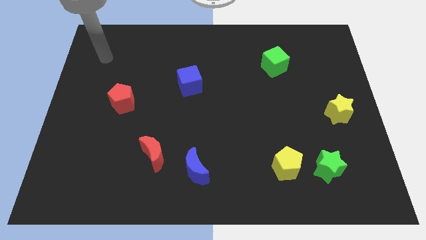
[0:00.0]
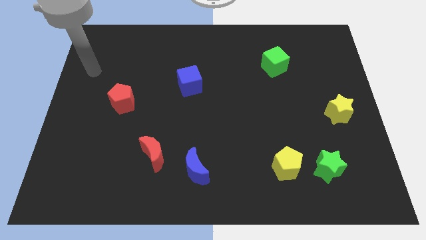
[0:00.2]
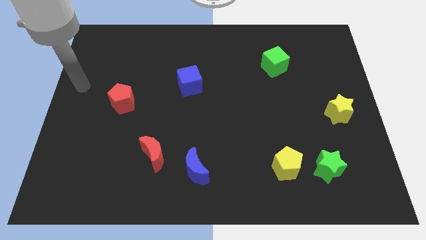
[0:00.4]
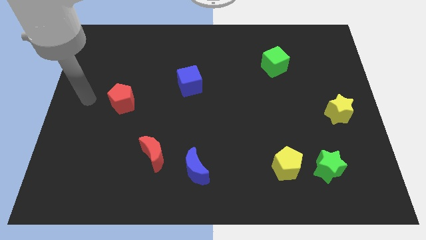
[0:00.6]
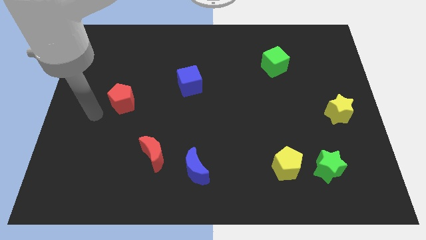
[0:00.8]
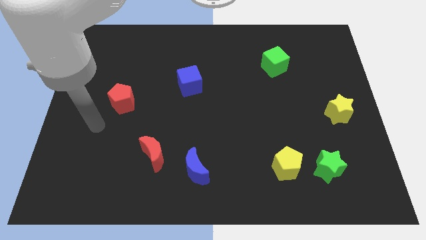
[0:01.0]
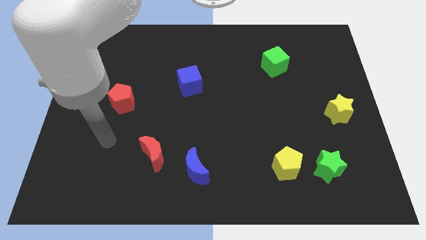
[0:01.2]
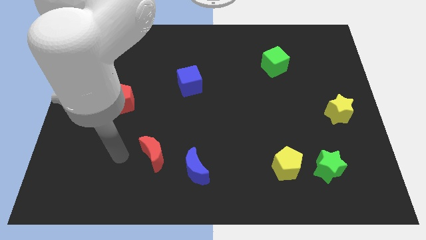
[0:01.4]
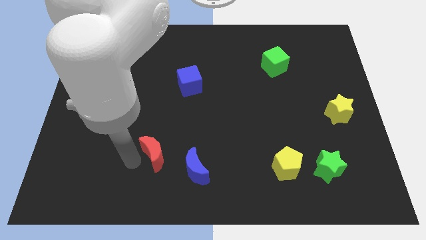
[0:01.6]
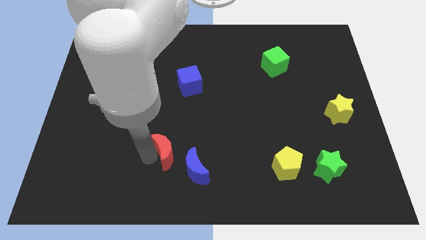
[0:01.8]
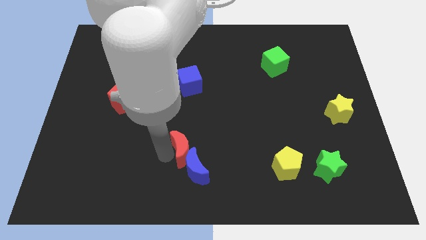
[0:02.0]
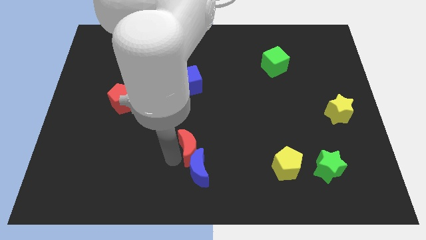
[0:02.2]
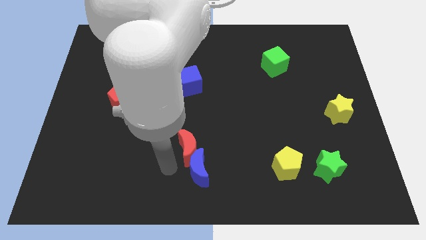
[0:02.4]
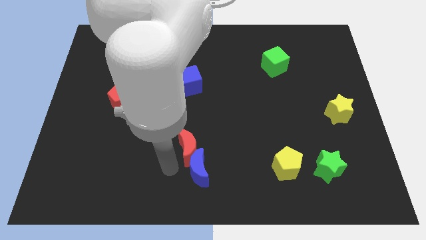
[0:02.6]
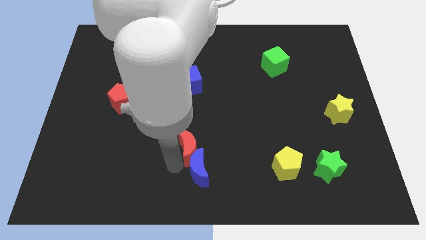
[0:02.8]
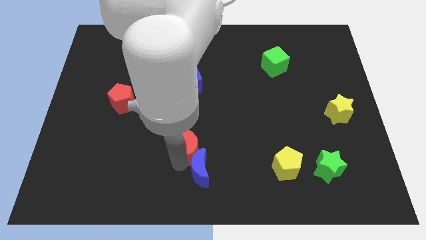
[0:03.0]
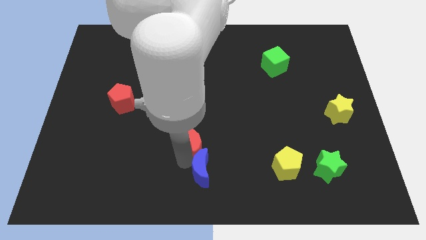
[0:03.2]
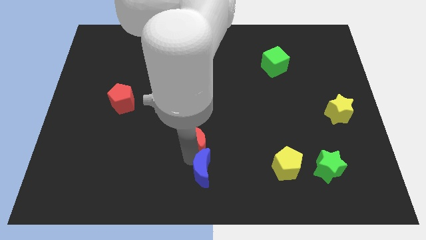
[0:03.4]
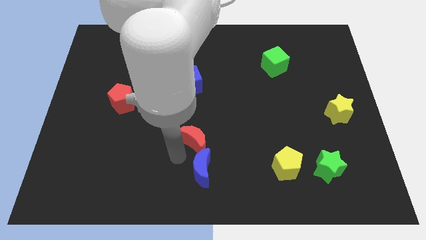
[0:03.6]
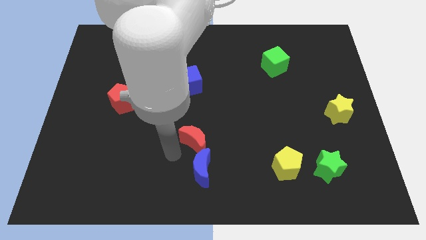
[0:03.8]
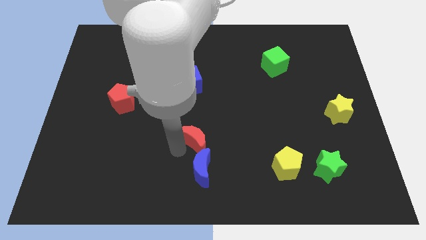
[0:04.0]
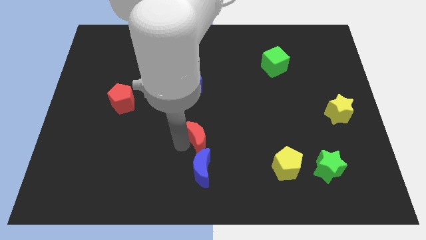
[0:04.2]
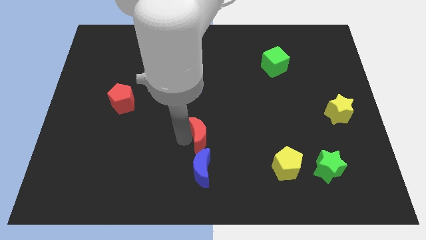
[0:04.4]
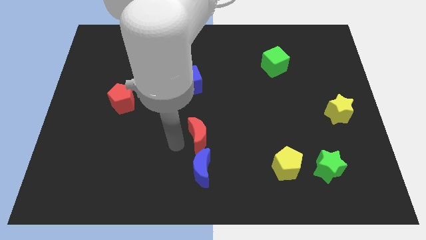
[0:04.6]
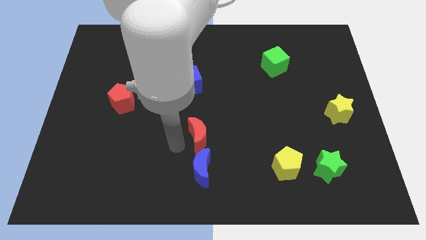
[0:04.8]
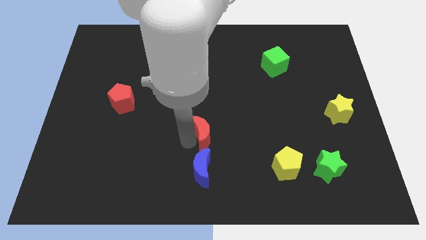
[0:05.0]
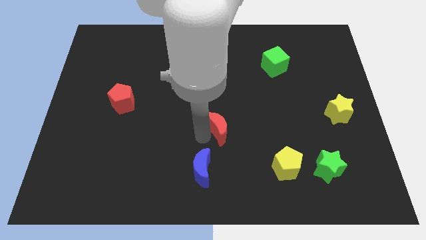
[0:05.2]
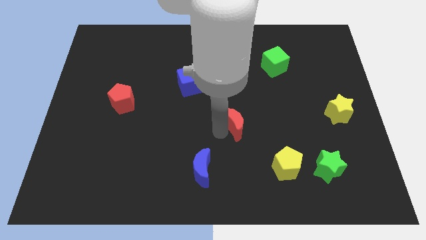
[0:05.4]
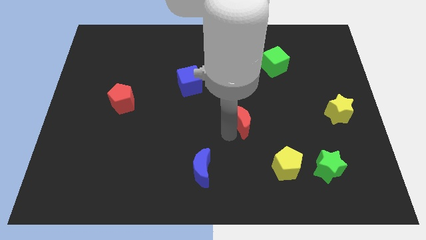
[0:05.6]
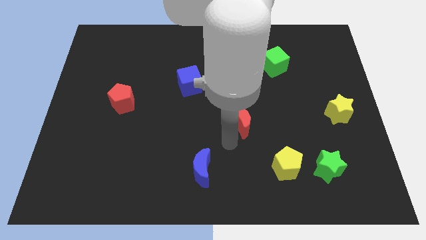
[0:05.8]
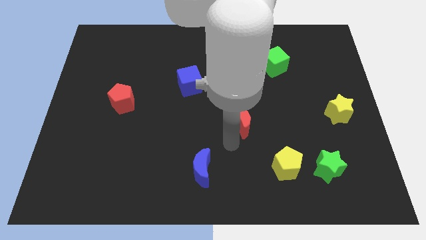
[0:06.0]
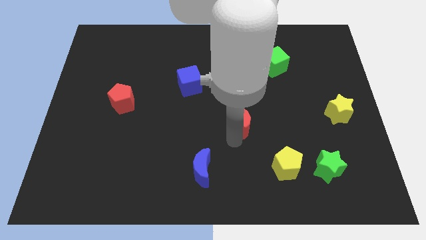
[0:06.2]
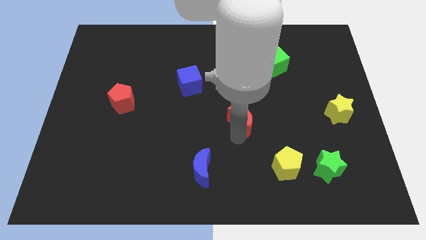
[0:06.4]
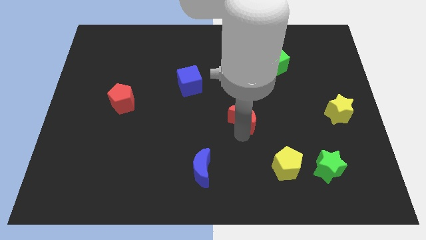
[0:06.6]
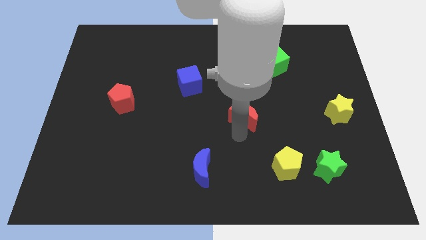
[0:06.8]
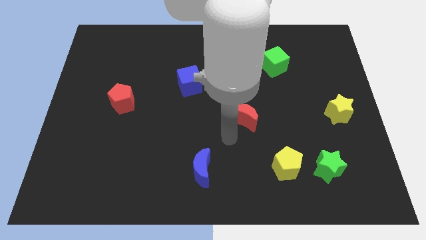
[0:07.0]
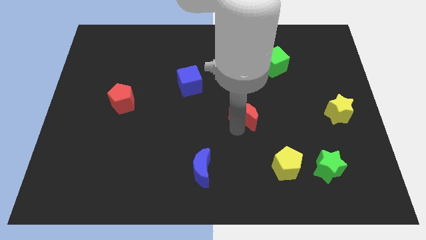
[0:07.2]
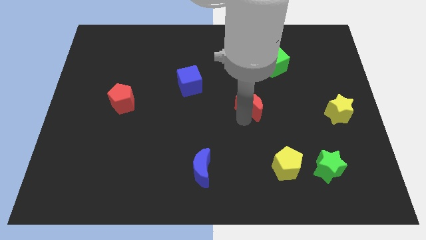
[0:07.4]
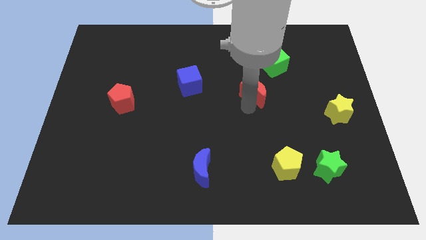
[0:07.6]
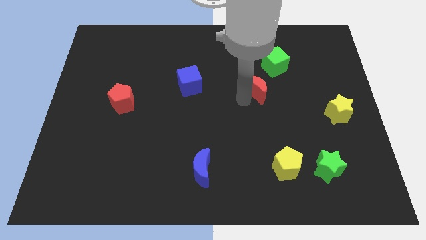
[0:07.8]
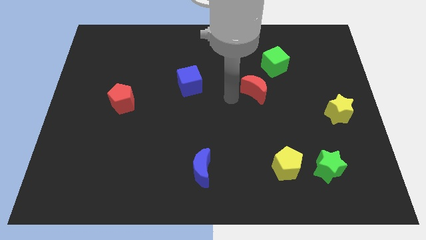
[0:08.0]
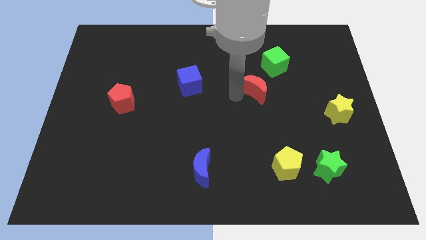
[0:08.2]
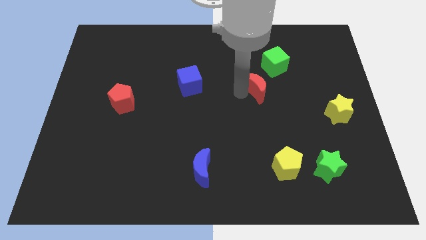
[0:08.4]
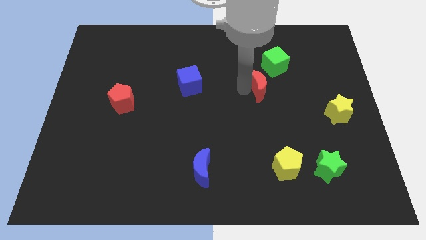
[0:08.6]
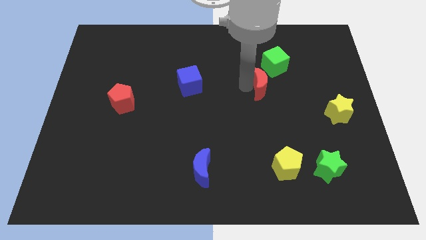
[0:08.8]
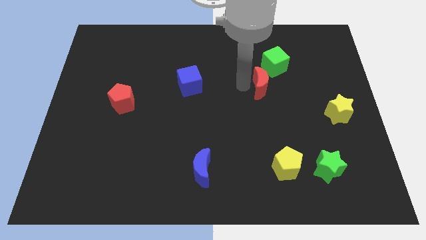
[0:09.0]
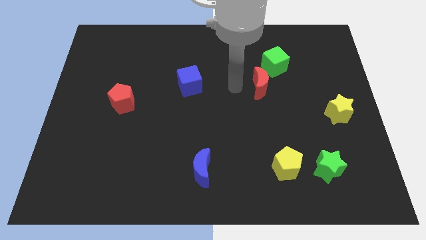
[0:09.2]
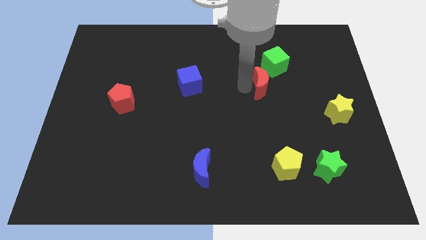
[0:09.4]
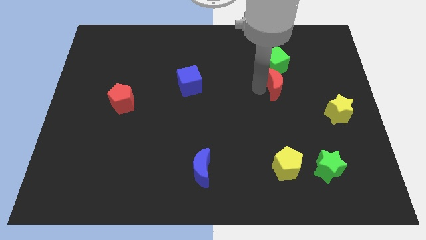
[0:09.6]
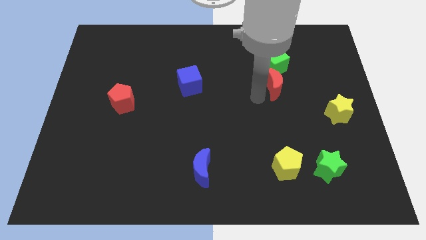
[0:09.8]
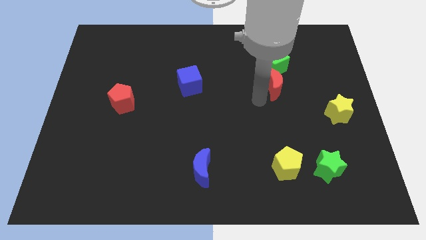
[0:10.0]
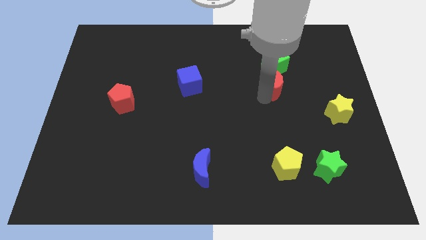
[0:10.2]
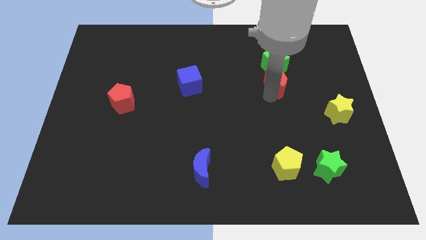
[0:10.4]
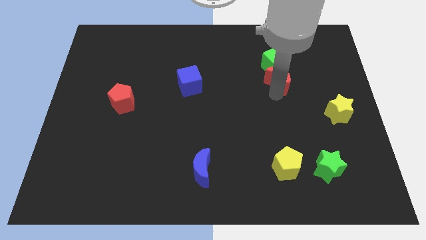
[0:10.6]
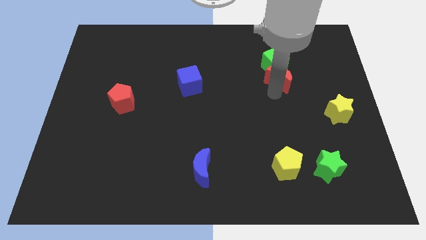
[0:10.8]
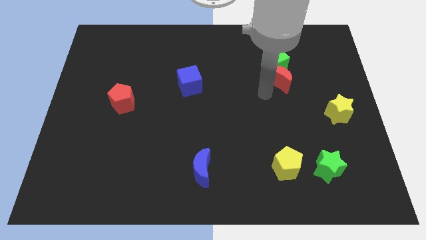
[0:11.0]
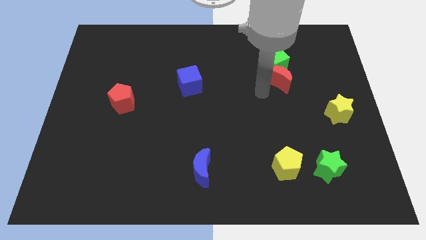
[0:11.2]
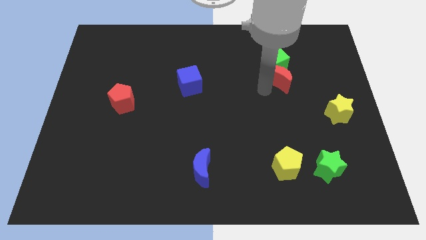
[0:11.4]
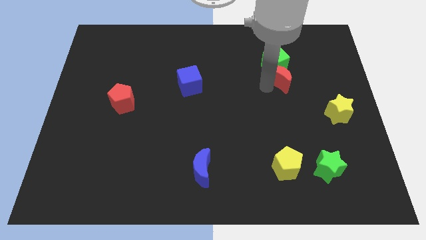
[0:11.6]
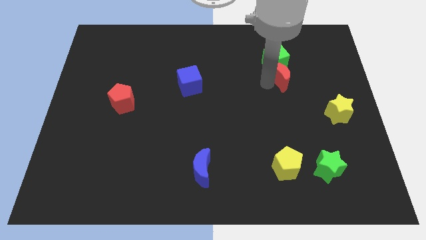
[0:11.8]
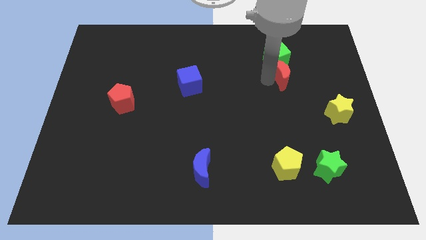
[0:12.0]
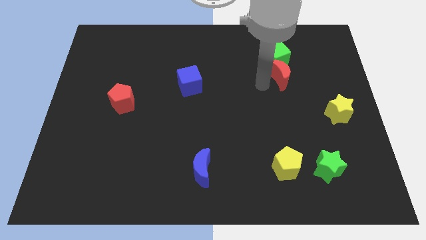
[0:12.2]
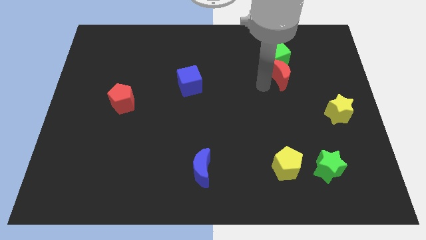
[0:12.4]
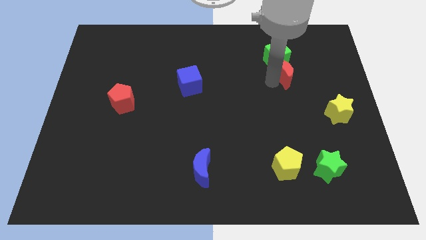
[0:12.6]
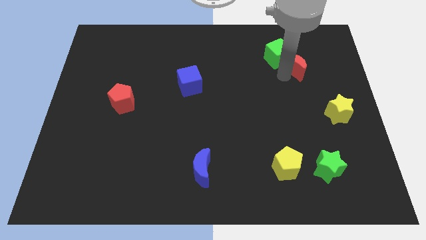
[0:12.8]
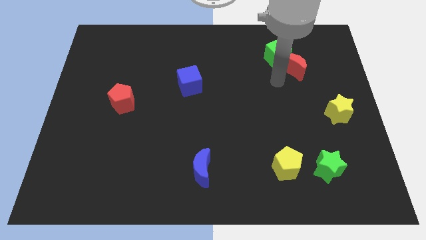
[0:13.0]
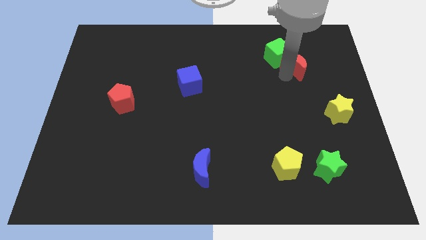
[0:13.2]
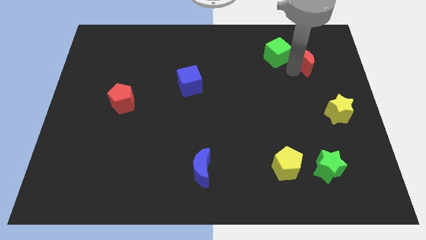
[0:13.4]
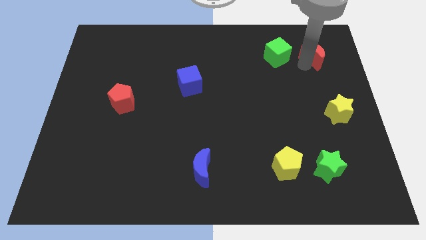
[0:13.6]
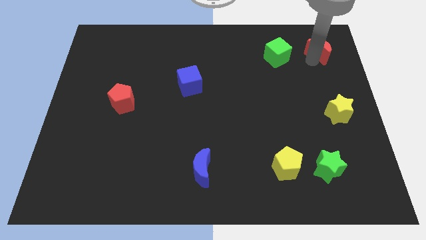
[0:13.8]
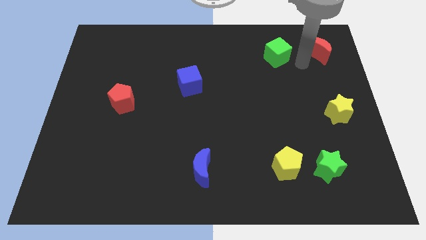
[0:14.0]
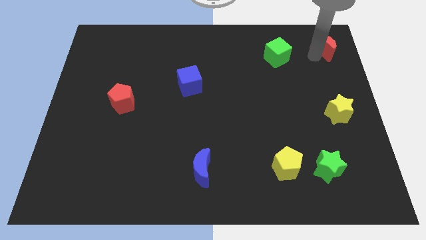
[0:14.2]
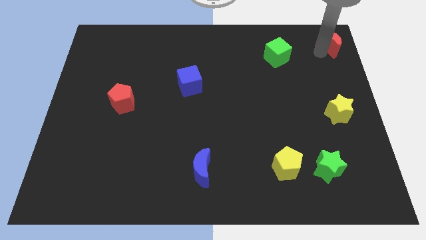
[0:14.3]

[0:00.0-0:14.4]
put the red moon to the upper right corner

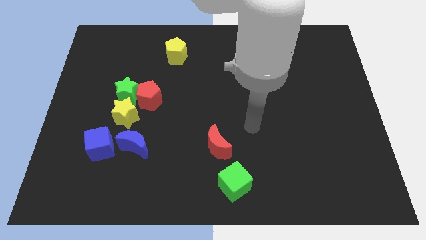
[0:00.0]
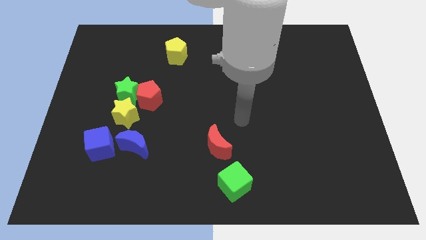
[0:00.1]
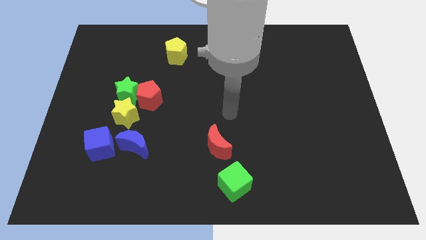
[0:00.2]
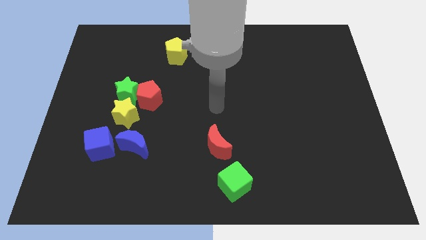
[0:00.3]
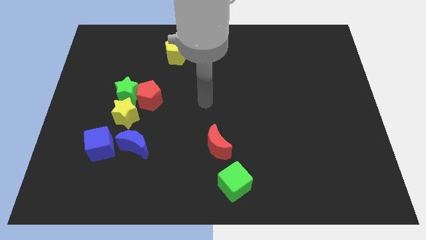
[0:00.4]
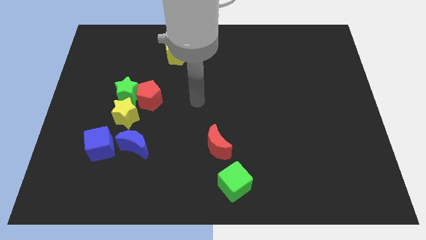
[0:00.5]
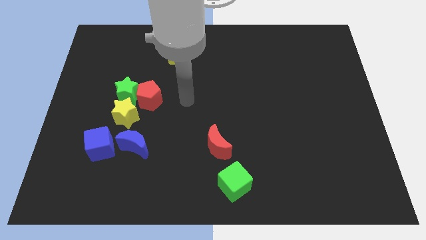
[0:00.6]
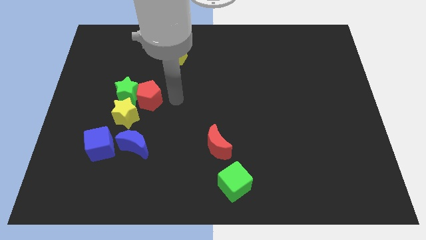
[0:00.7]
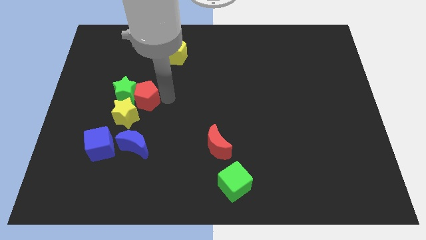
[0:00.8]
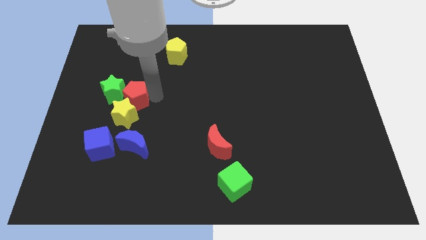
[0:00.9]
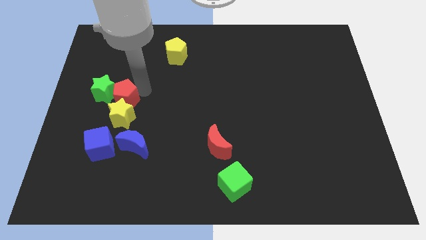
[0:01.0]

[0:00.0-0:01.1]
move the green star to the left side
